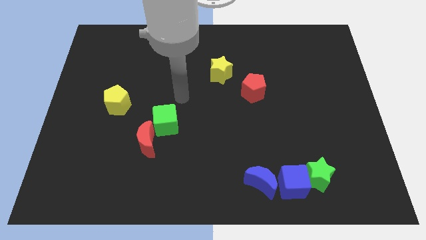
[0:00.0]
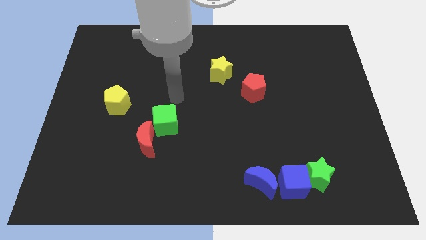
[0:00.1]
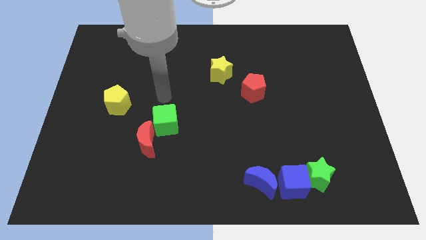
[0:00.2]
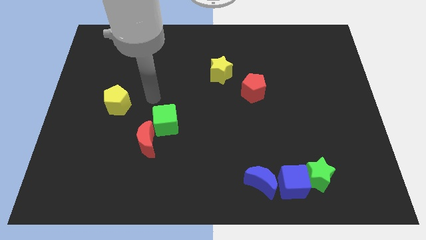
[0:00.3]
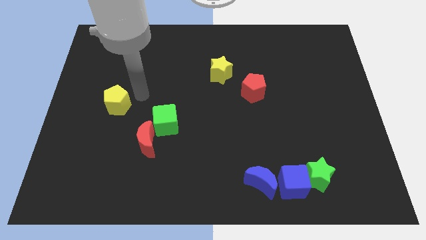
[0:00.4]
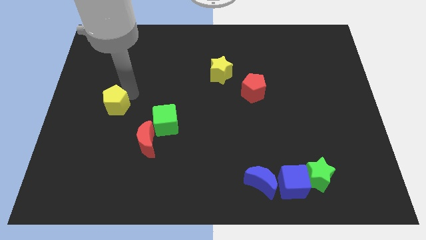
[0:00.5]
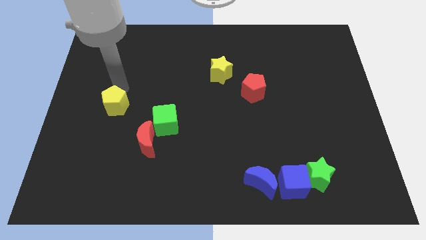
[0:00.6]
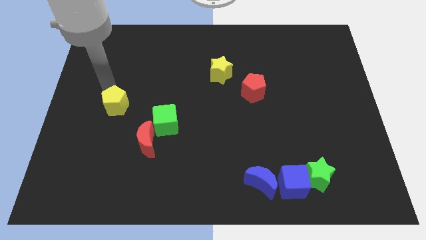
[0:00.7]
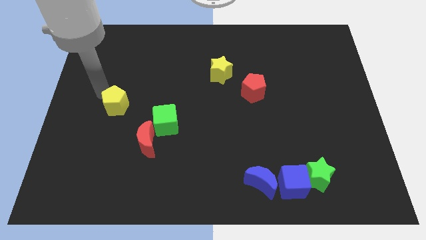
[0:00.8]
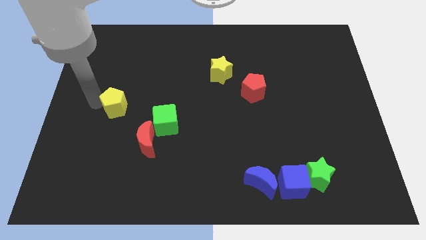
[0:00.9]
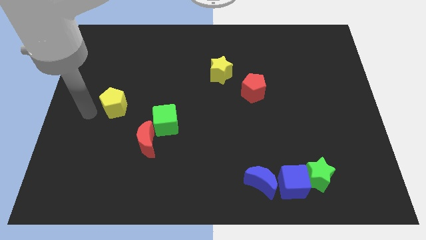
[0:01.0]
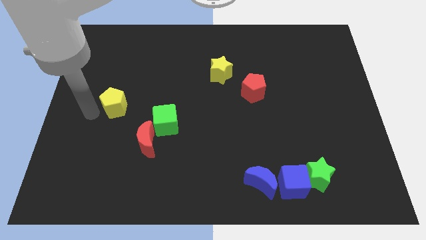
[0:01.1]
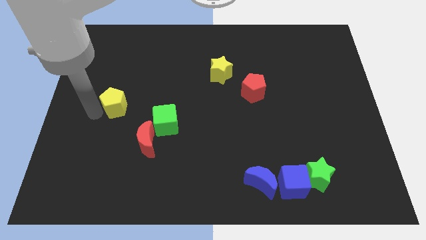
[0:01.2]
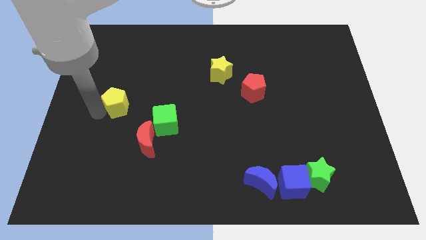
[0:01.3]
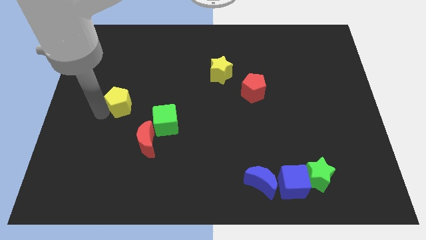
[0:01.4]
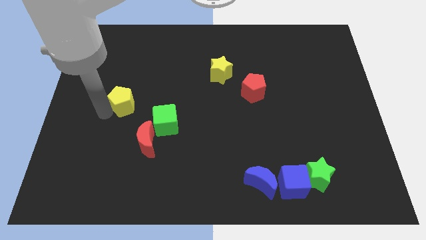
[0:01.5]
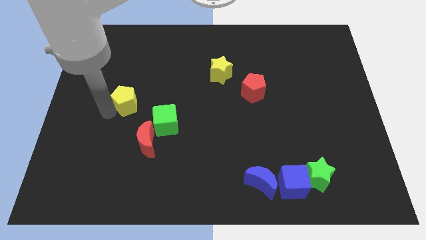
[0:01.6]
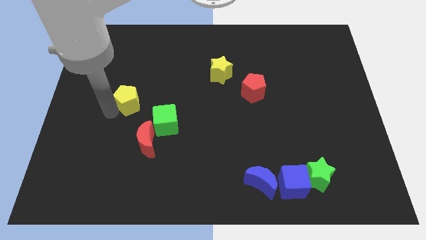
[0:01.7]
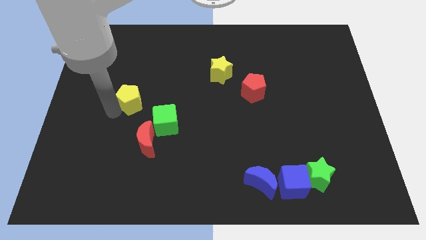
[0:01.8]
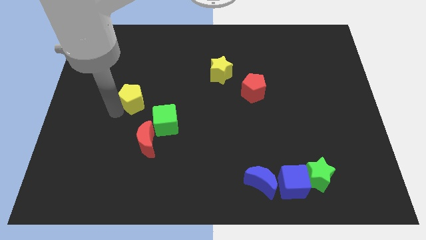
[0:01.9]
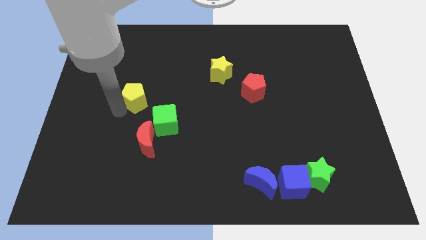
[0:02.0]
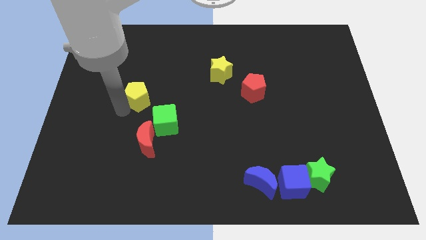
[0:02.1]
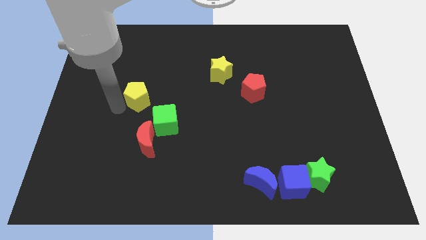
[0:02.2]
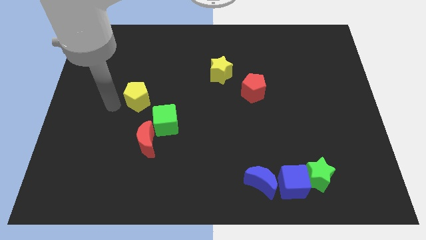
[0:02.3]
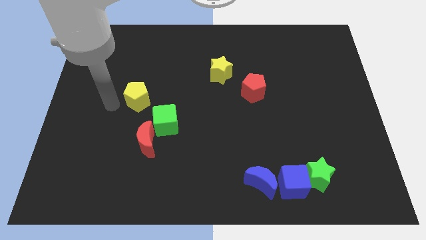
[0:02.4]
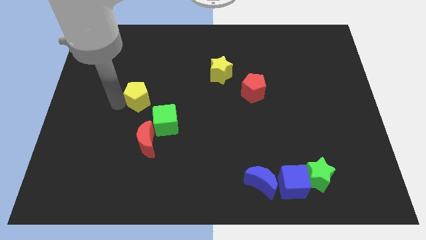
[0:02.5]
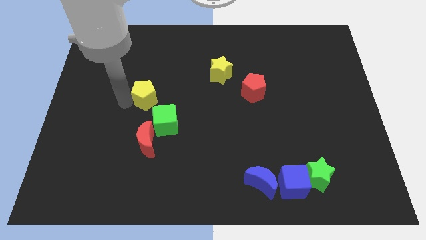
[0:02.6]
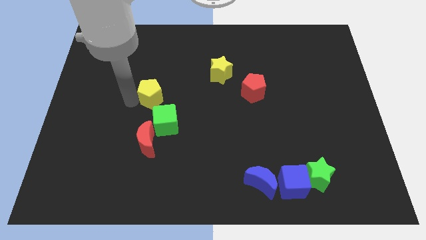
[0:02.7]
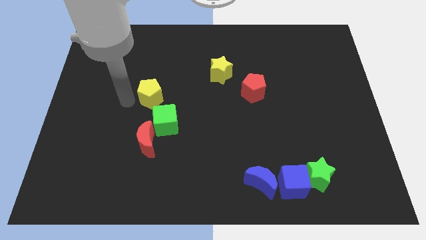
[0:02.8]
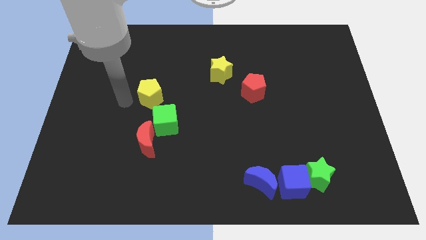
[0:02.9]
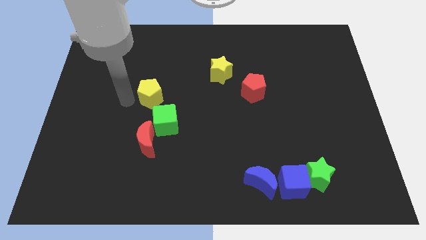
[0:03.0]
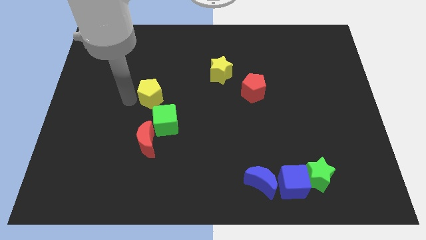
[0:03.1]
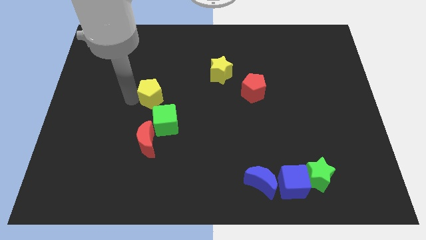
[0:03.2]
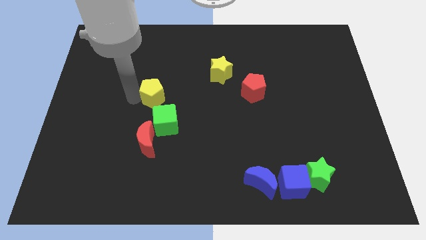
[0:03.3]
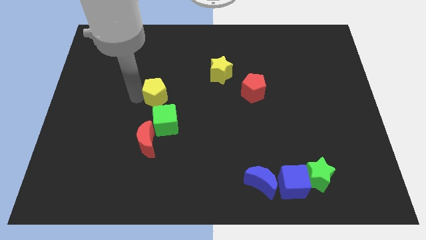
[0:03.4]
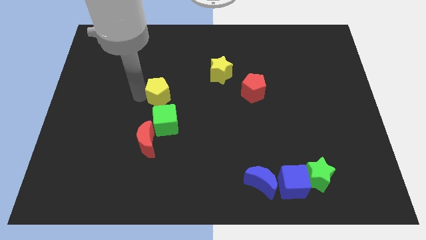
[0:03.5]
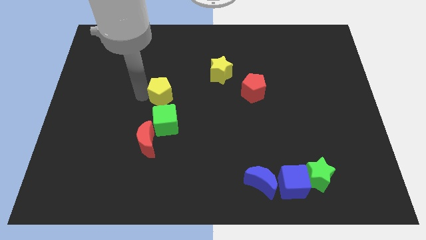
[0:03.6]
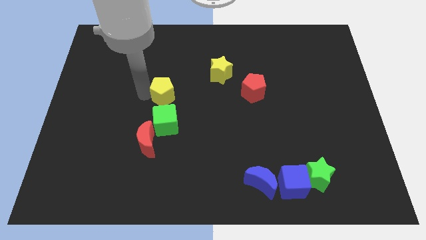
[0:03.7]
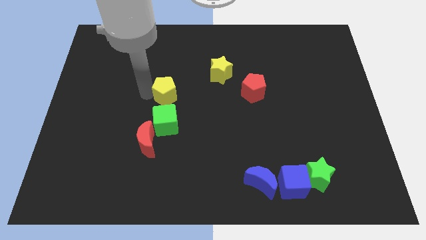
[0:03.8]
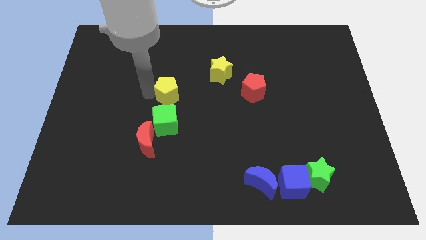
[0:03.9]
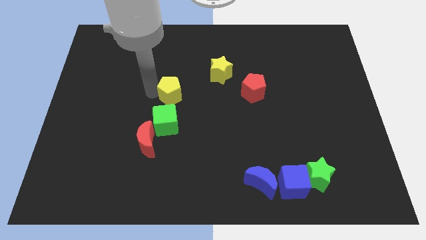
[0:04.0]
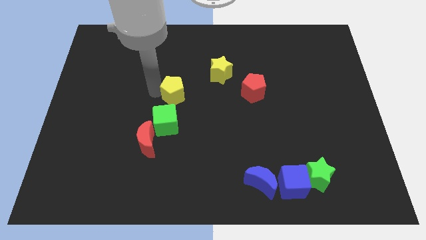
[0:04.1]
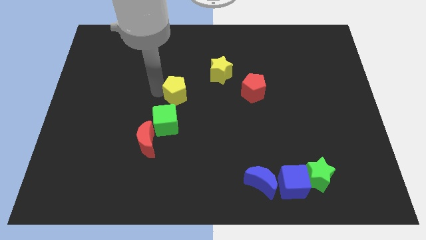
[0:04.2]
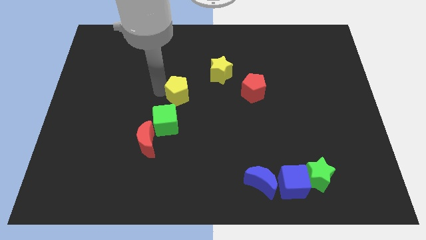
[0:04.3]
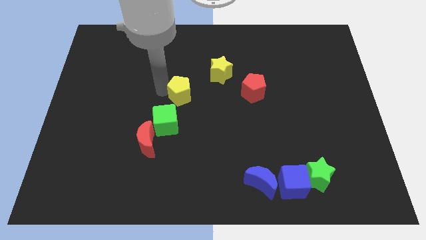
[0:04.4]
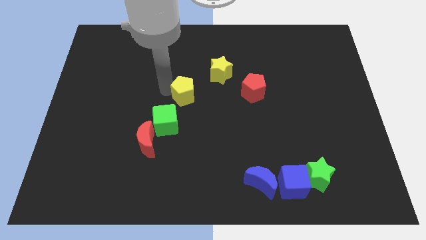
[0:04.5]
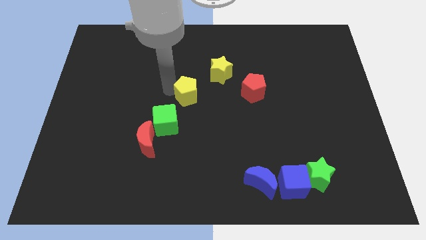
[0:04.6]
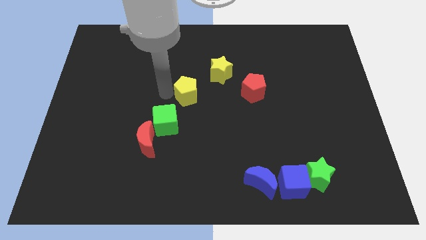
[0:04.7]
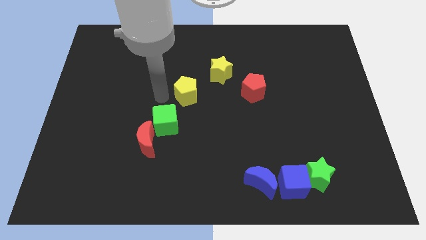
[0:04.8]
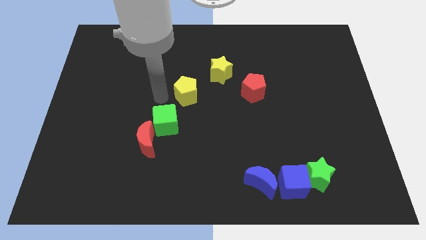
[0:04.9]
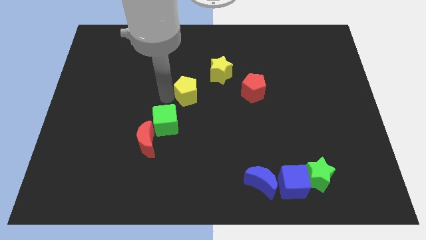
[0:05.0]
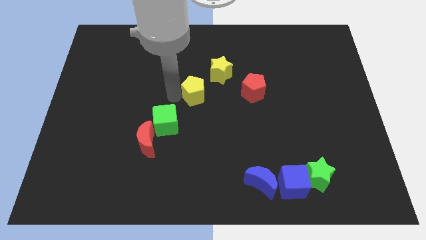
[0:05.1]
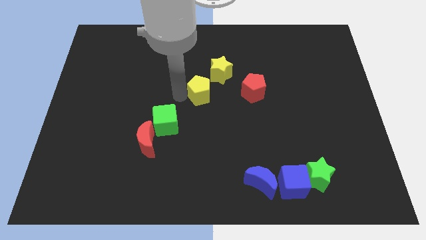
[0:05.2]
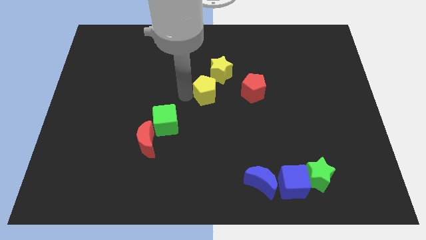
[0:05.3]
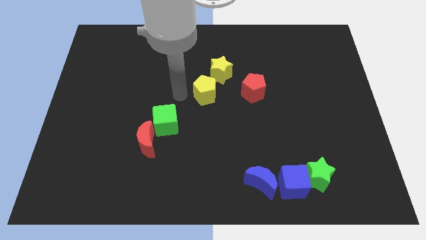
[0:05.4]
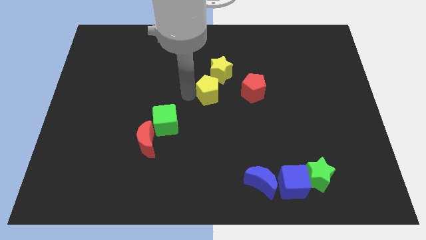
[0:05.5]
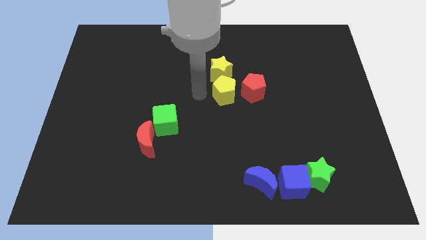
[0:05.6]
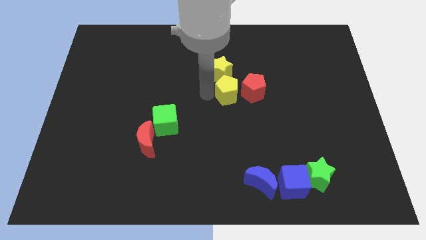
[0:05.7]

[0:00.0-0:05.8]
slide the yellow pentagon towards the red pentagon

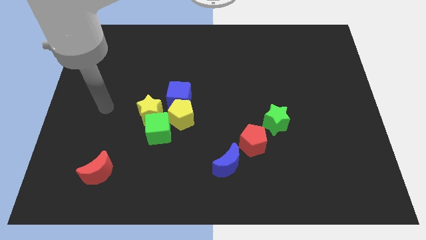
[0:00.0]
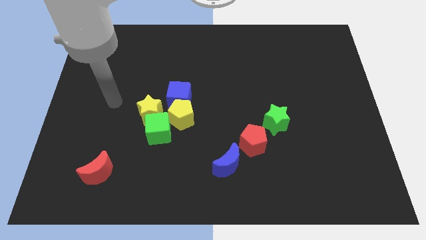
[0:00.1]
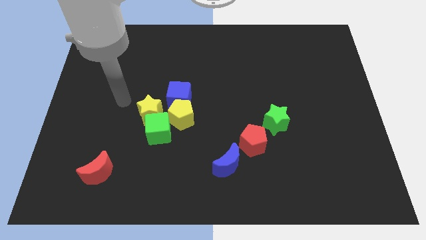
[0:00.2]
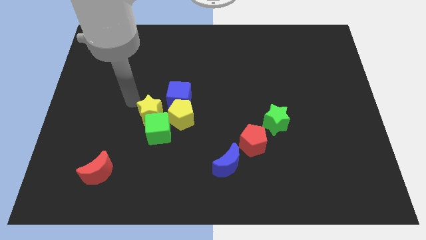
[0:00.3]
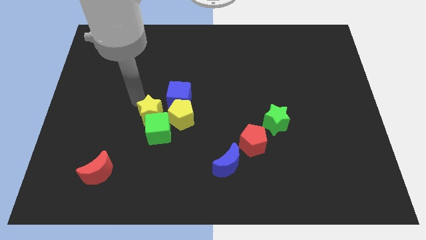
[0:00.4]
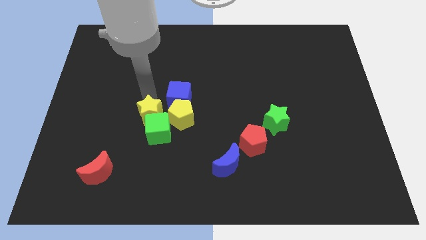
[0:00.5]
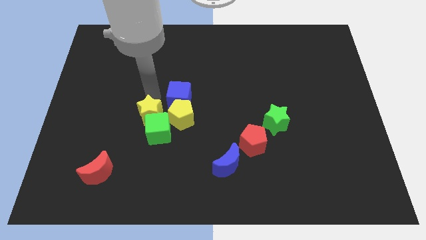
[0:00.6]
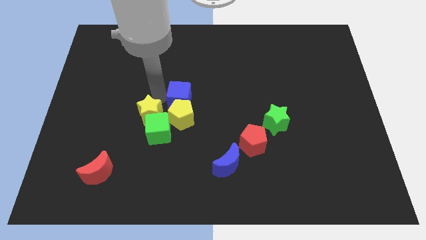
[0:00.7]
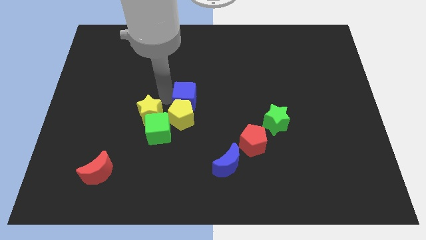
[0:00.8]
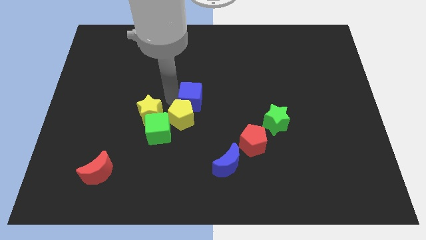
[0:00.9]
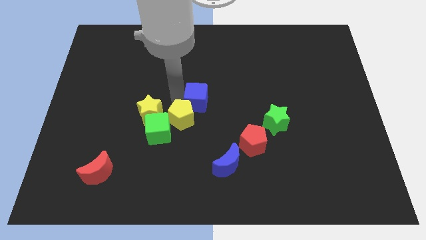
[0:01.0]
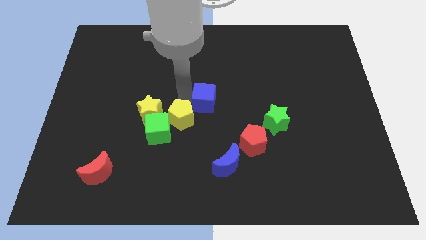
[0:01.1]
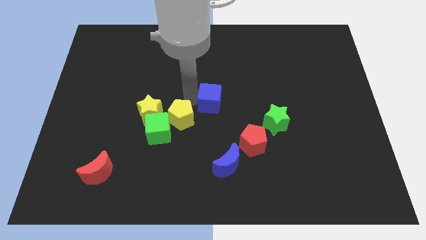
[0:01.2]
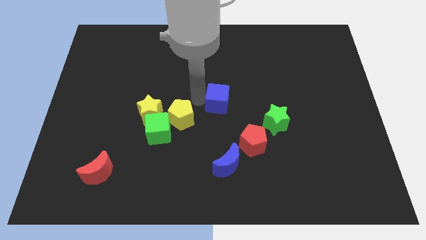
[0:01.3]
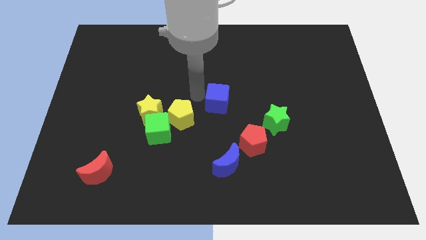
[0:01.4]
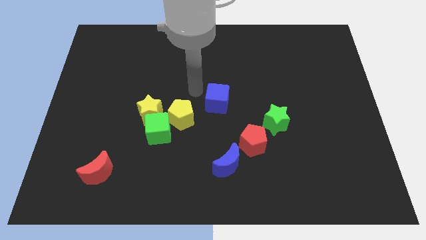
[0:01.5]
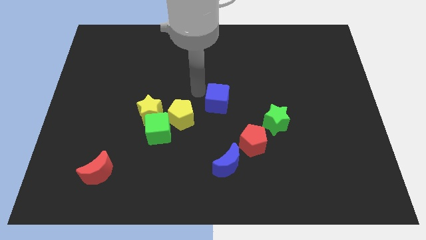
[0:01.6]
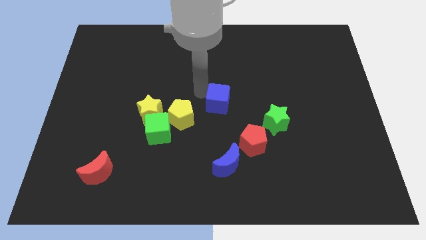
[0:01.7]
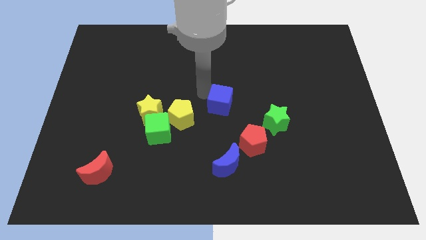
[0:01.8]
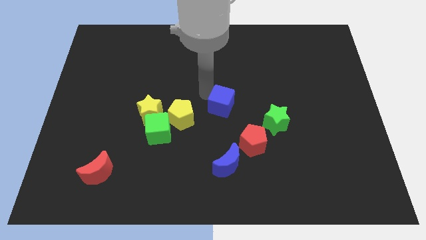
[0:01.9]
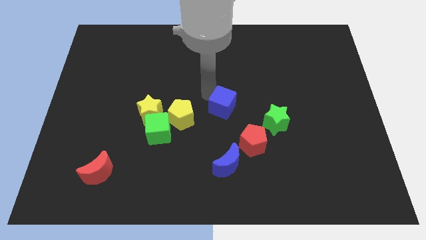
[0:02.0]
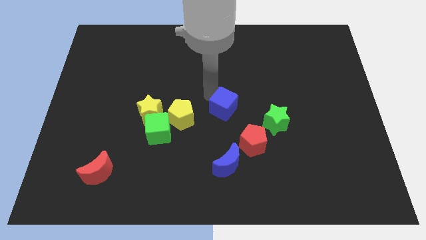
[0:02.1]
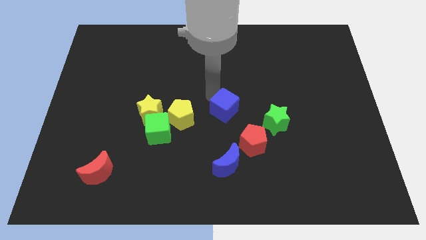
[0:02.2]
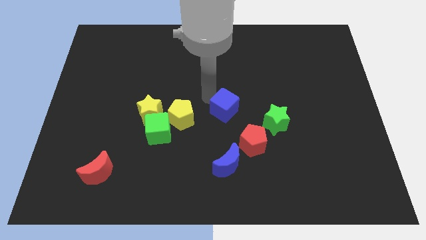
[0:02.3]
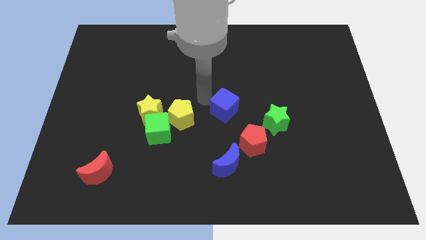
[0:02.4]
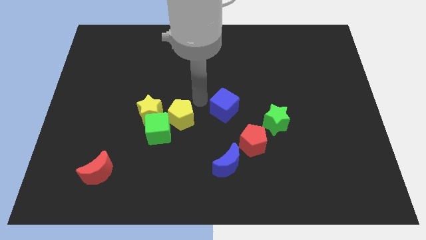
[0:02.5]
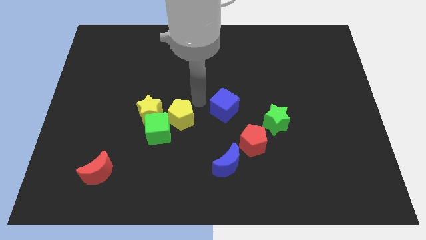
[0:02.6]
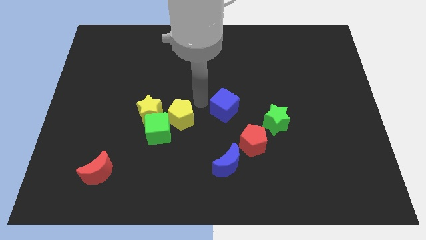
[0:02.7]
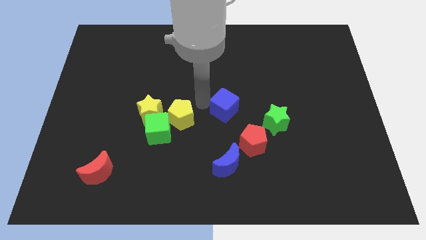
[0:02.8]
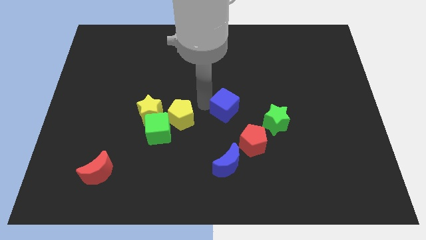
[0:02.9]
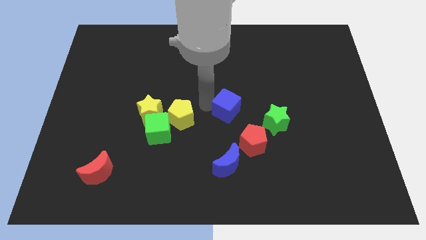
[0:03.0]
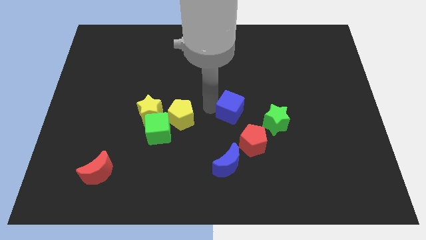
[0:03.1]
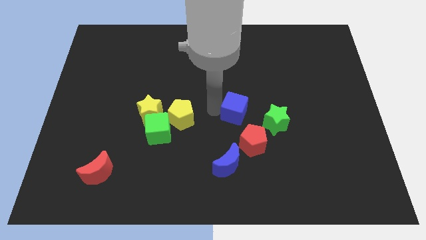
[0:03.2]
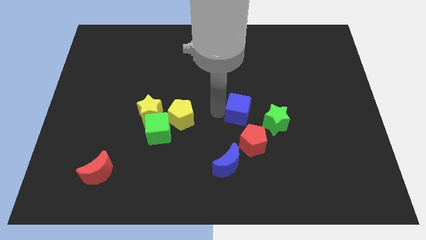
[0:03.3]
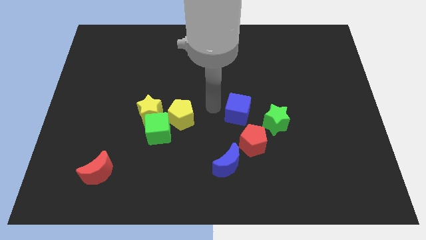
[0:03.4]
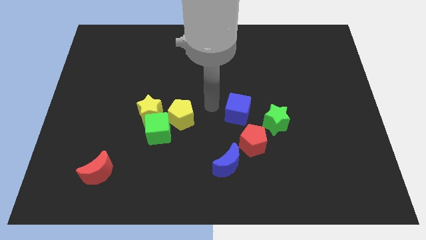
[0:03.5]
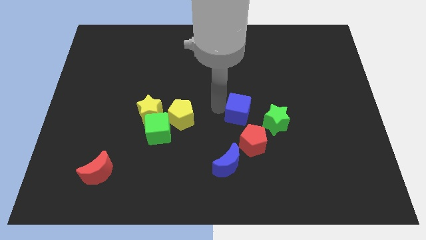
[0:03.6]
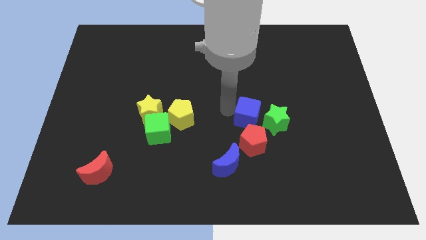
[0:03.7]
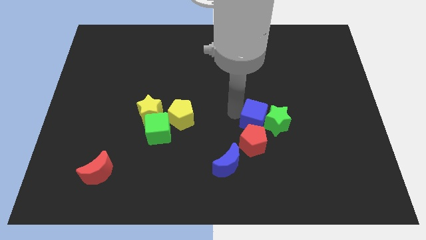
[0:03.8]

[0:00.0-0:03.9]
slide the blue cube towards the green star
